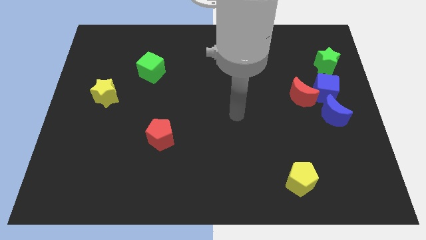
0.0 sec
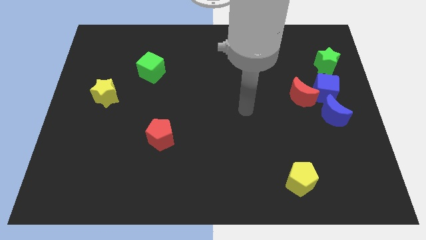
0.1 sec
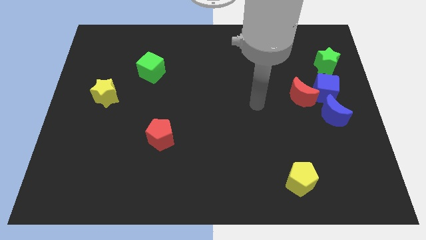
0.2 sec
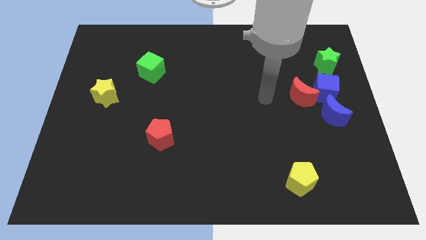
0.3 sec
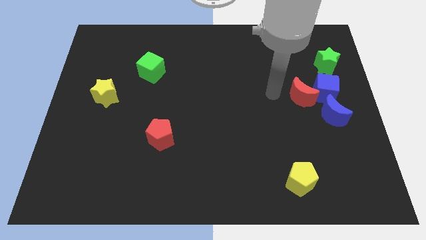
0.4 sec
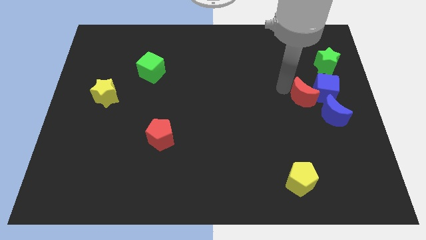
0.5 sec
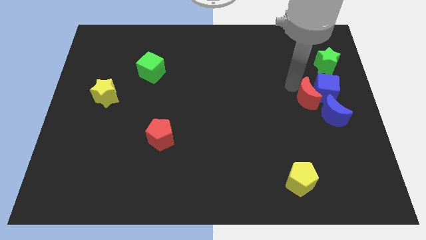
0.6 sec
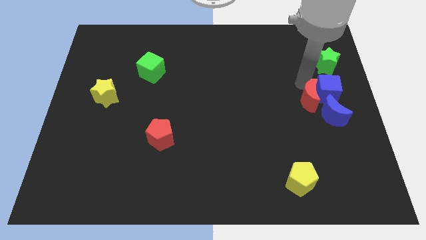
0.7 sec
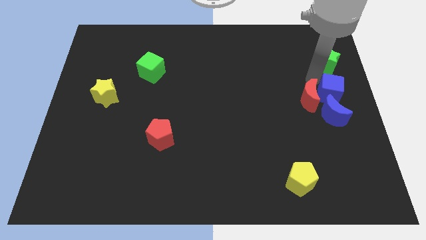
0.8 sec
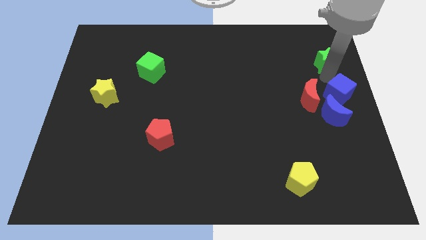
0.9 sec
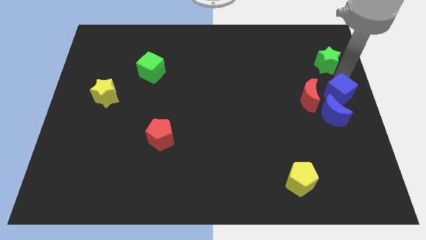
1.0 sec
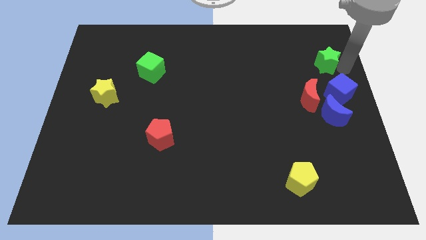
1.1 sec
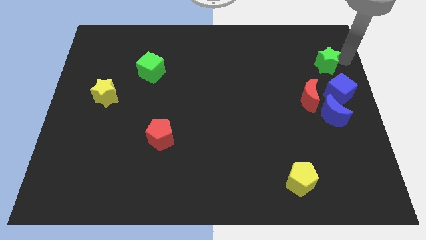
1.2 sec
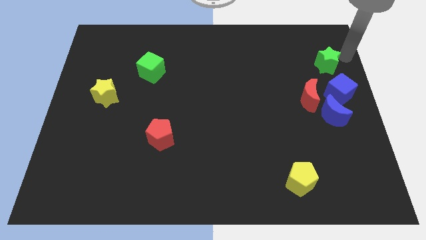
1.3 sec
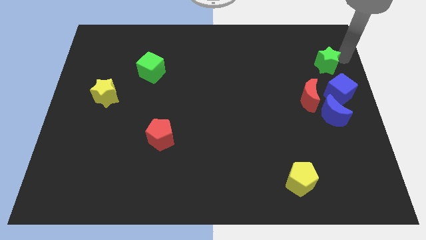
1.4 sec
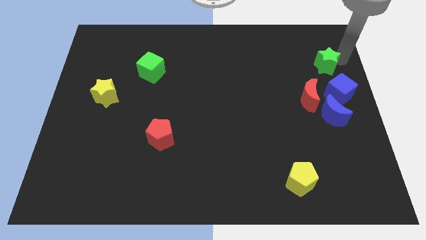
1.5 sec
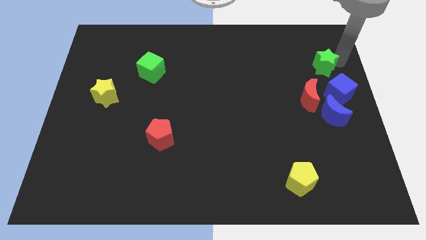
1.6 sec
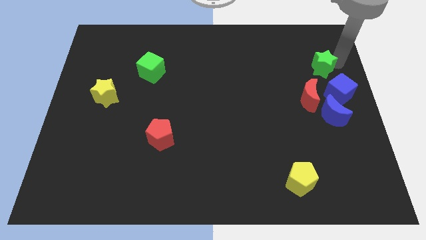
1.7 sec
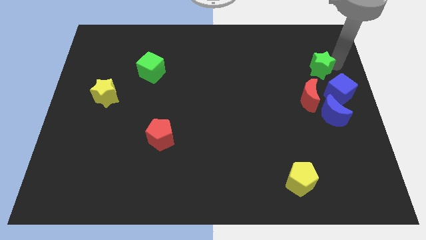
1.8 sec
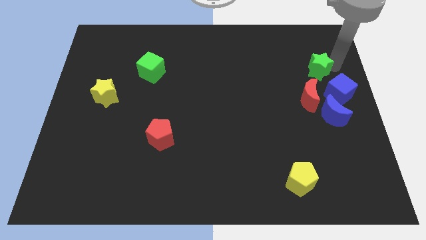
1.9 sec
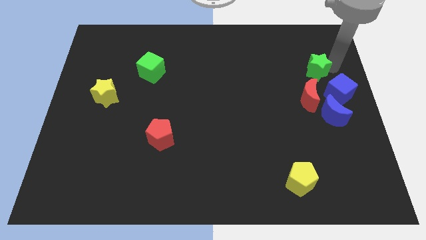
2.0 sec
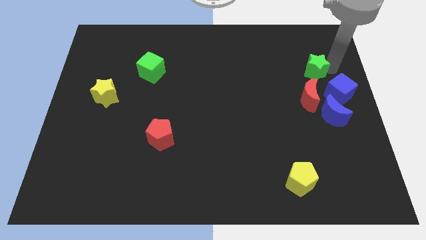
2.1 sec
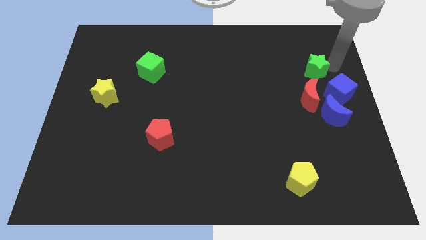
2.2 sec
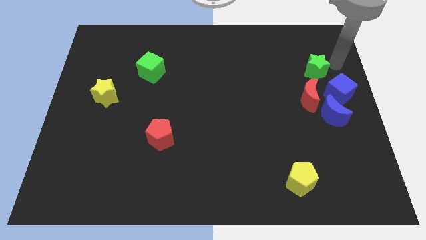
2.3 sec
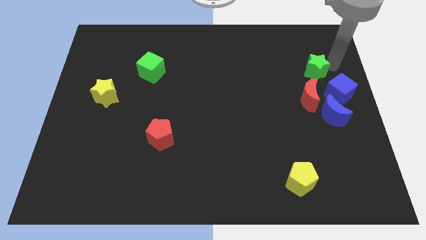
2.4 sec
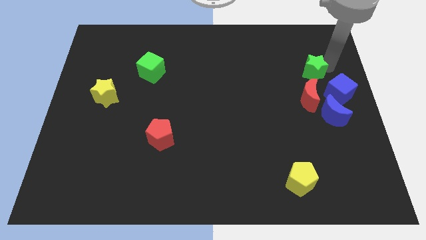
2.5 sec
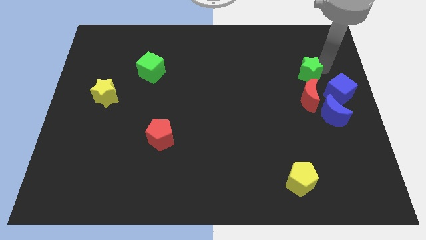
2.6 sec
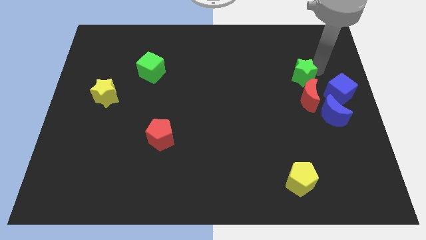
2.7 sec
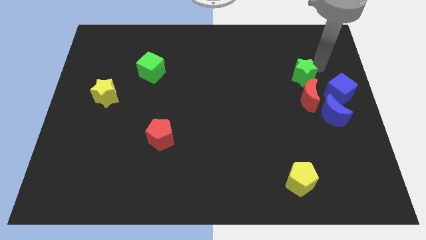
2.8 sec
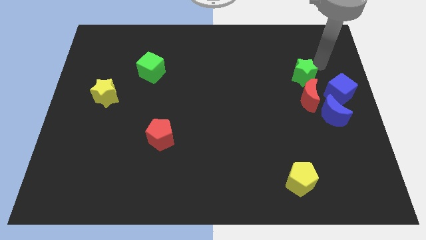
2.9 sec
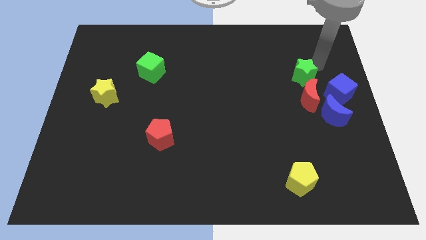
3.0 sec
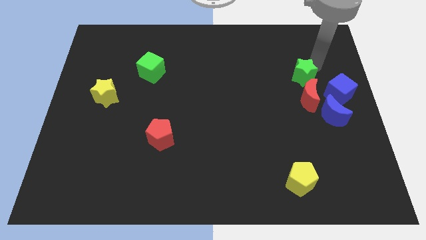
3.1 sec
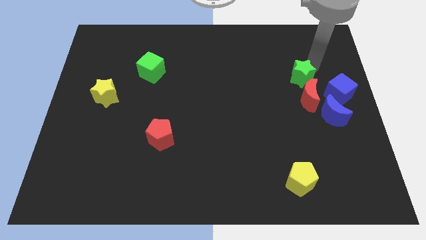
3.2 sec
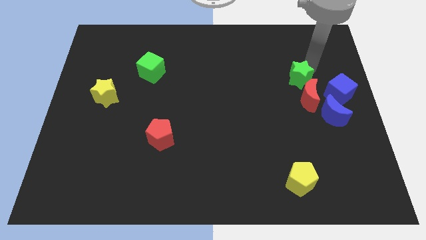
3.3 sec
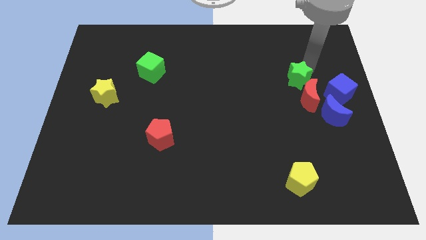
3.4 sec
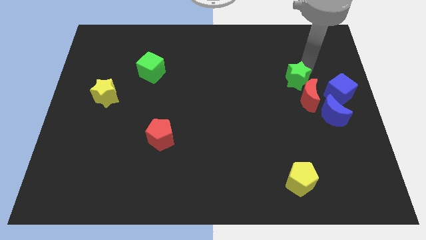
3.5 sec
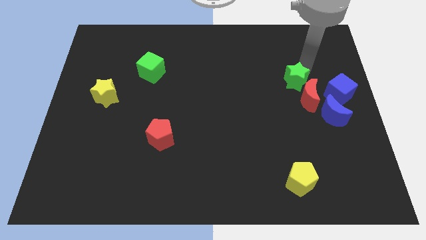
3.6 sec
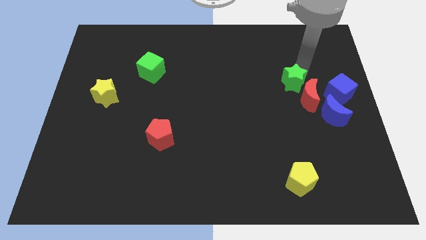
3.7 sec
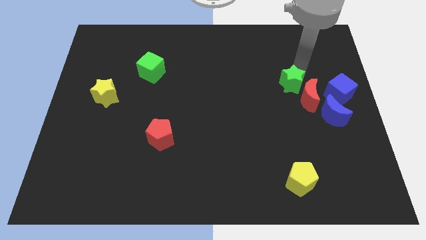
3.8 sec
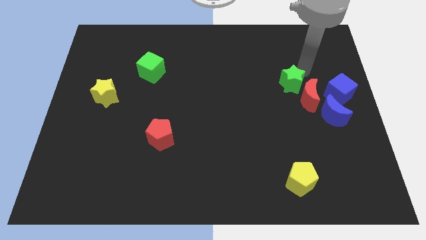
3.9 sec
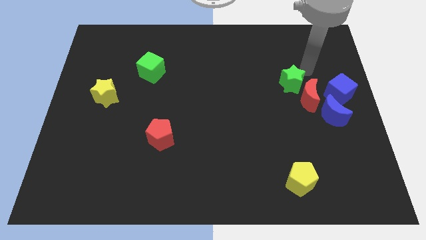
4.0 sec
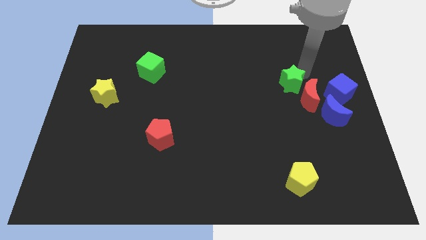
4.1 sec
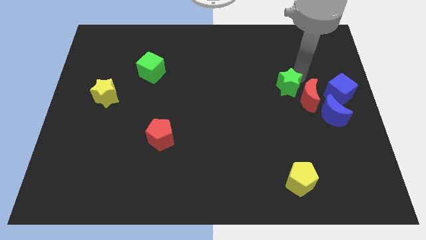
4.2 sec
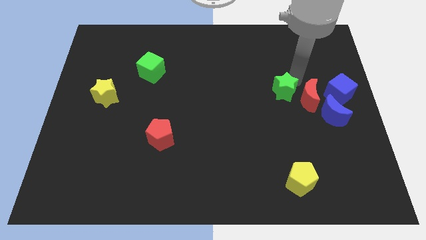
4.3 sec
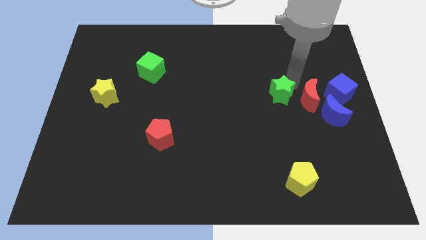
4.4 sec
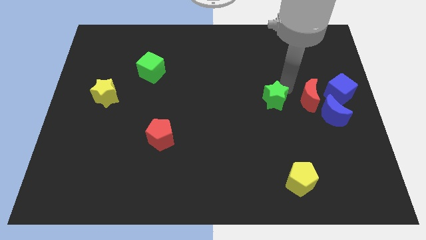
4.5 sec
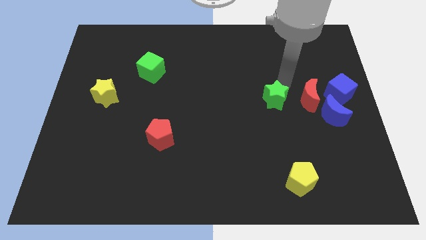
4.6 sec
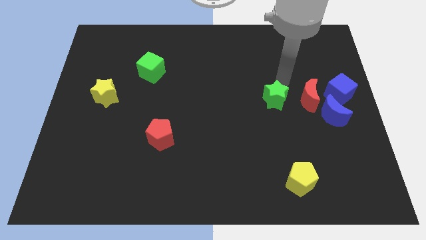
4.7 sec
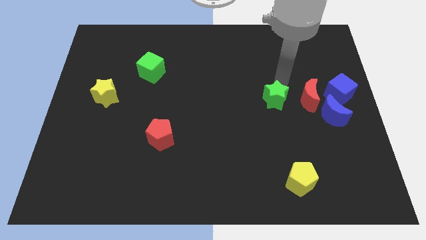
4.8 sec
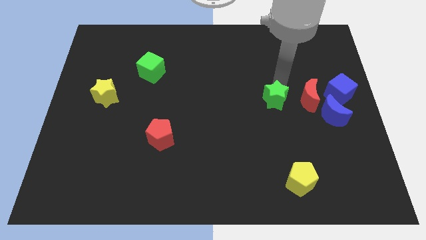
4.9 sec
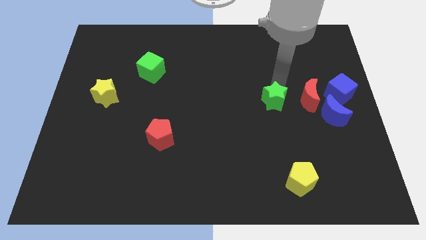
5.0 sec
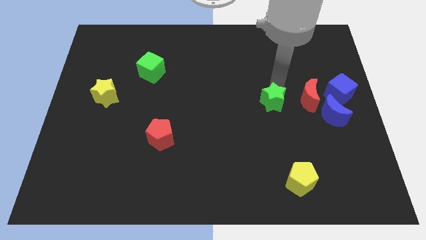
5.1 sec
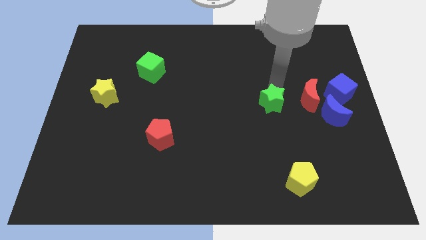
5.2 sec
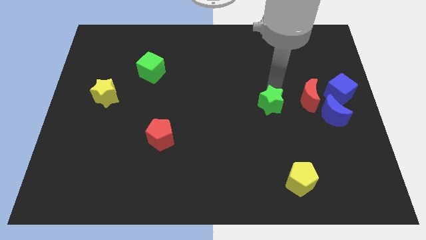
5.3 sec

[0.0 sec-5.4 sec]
slide the green star downwards and then left

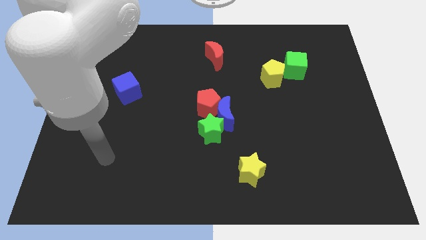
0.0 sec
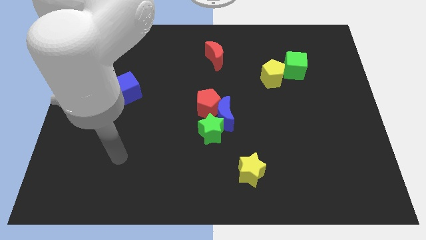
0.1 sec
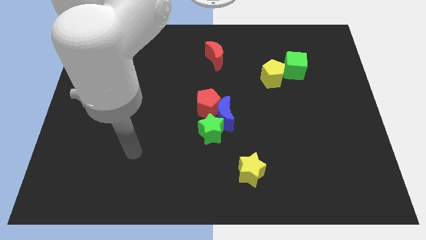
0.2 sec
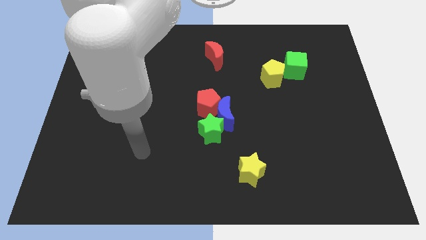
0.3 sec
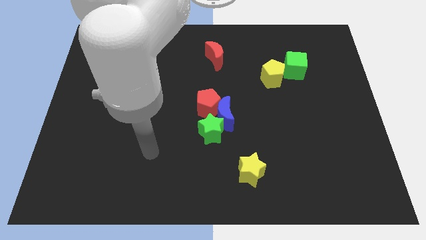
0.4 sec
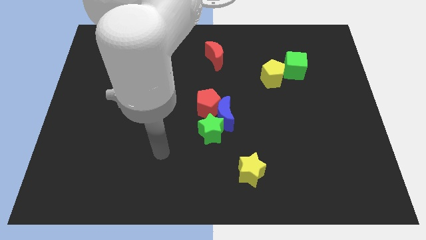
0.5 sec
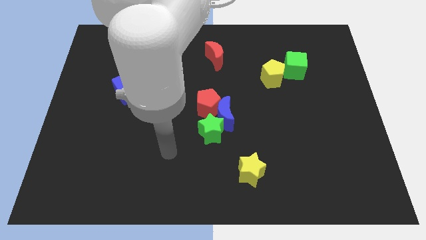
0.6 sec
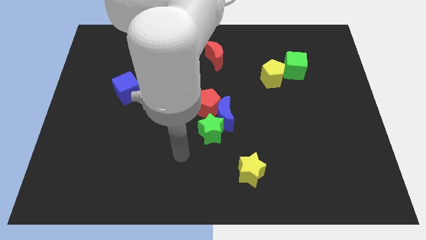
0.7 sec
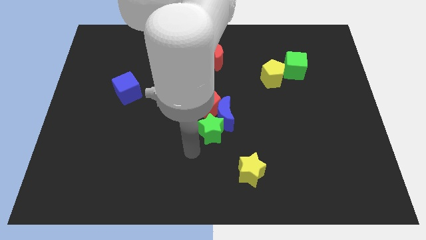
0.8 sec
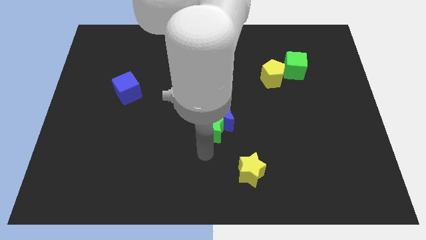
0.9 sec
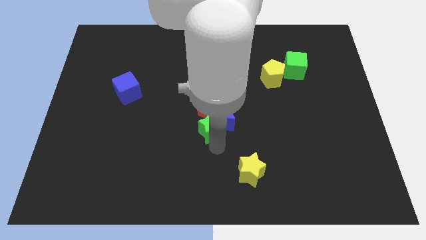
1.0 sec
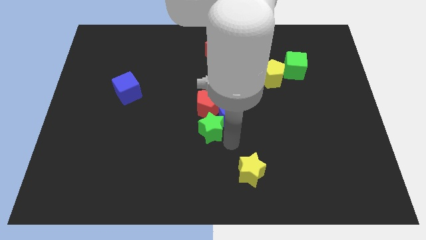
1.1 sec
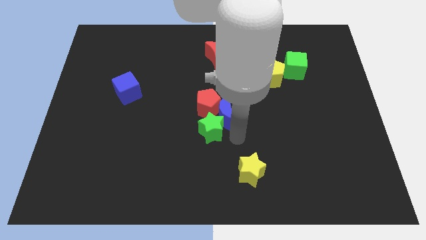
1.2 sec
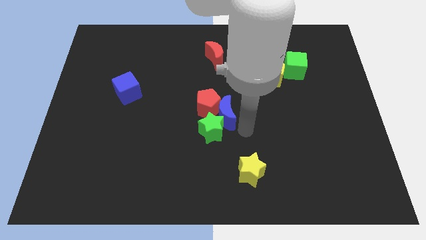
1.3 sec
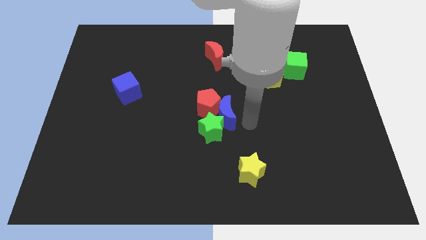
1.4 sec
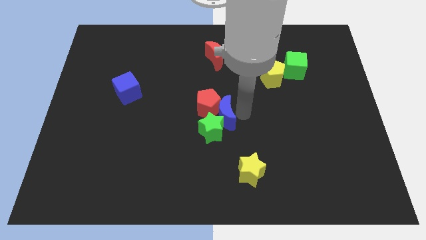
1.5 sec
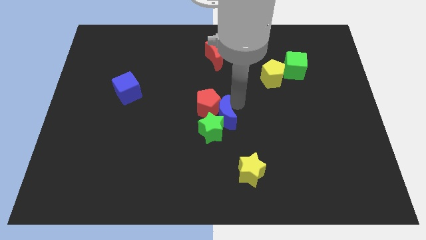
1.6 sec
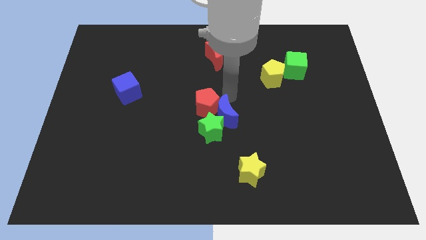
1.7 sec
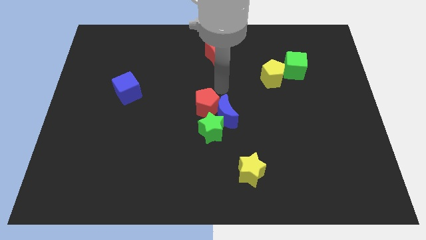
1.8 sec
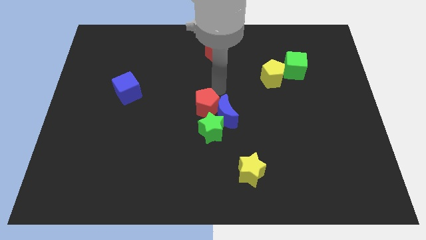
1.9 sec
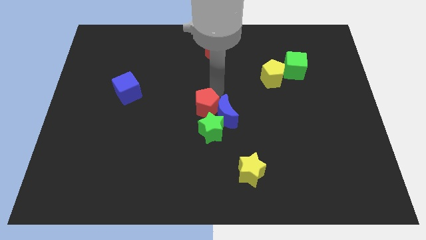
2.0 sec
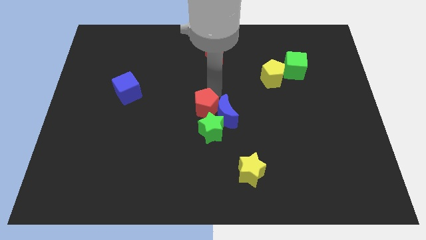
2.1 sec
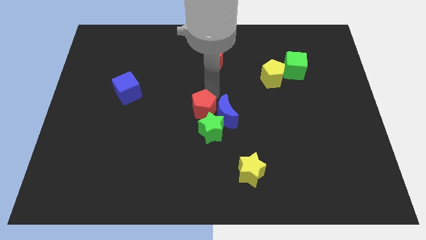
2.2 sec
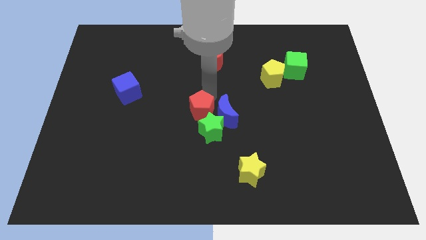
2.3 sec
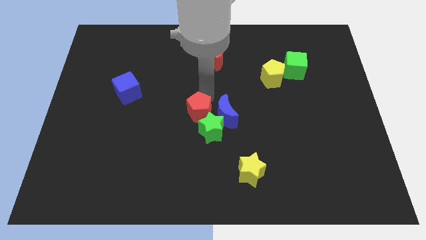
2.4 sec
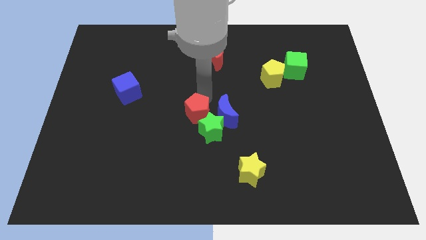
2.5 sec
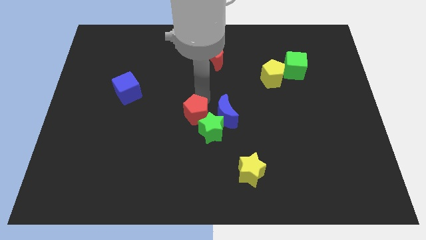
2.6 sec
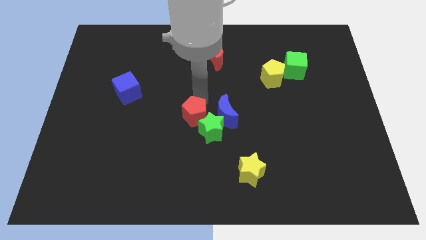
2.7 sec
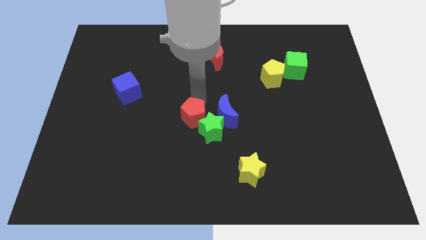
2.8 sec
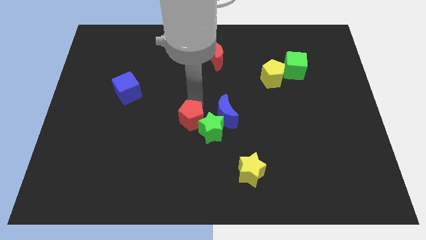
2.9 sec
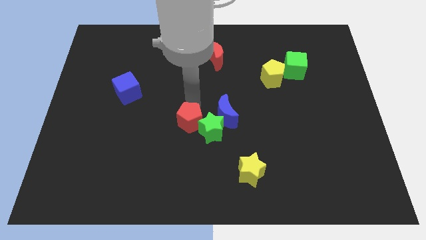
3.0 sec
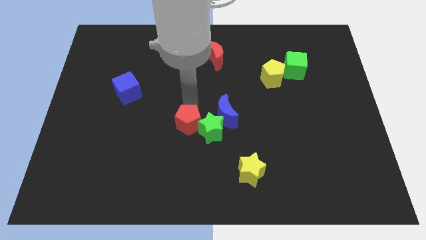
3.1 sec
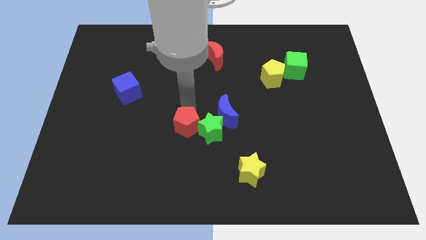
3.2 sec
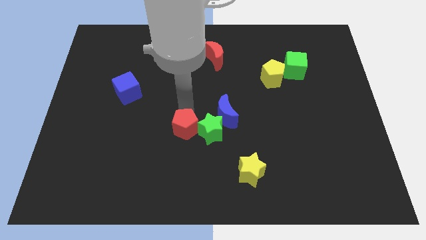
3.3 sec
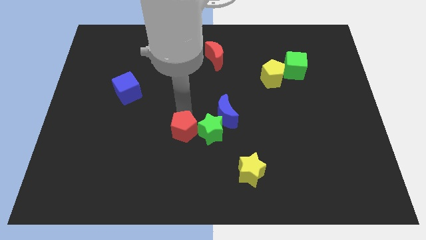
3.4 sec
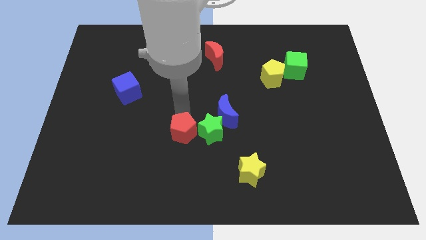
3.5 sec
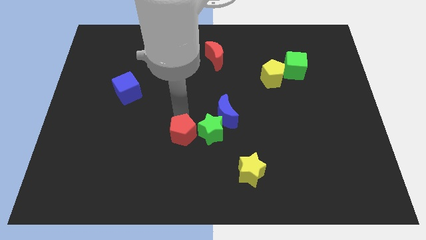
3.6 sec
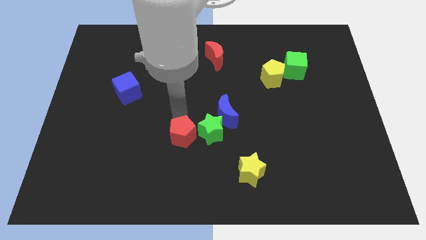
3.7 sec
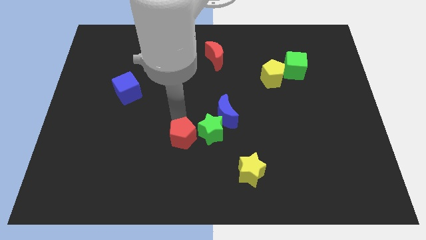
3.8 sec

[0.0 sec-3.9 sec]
move the red pentagon downwards a bit
